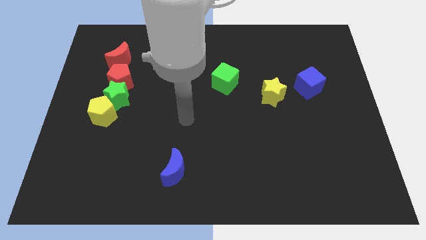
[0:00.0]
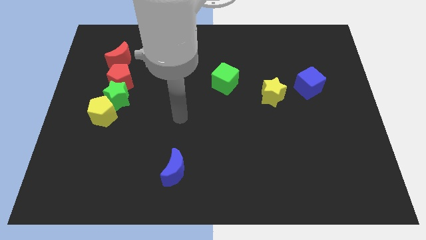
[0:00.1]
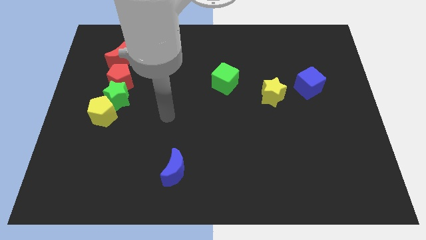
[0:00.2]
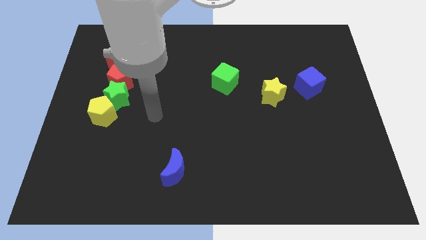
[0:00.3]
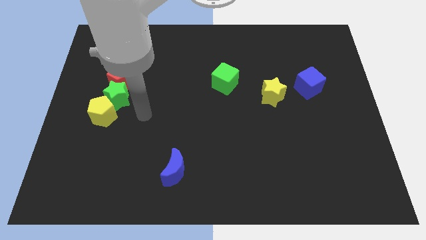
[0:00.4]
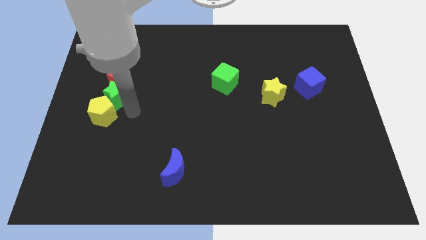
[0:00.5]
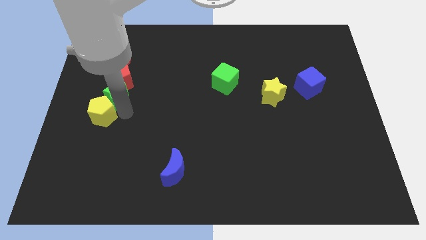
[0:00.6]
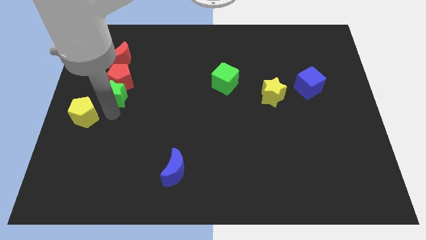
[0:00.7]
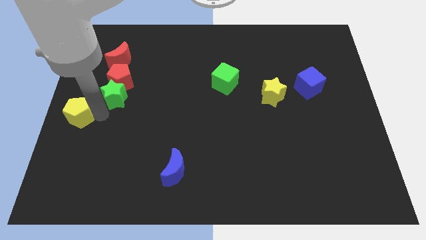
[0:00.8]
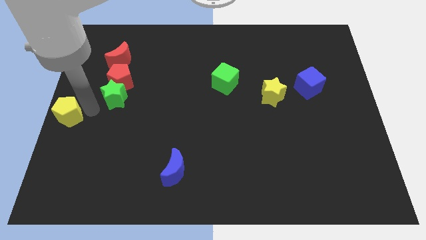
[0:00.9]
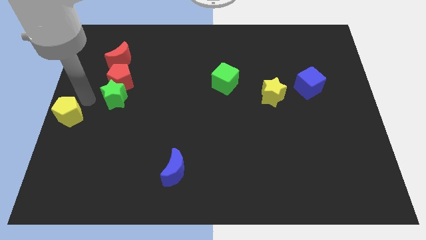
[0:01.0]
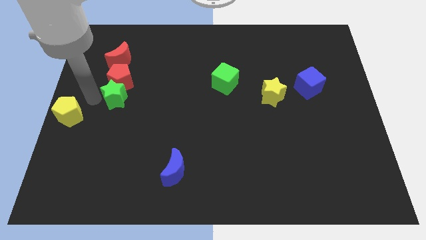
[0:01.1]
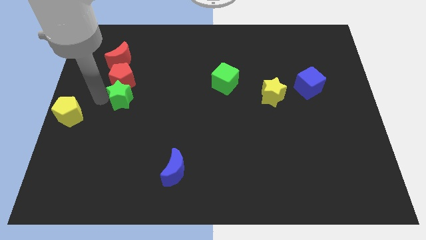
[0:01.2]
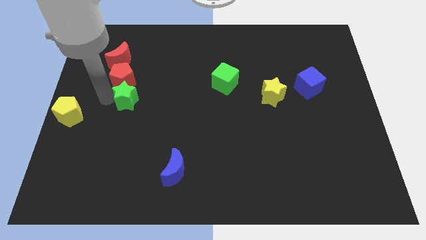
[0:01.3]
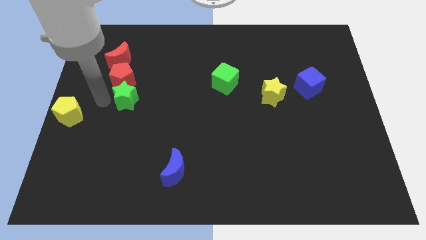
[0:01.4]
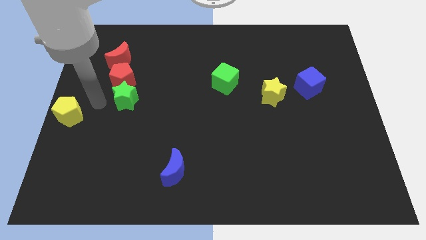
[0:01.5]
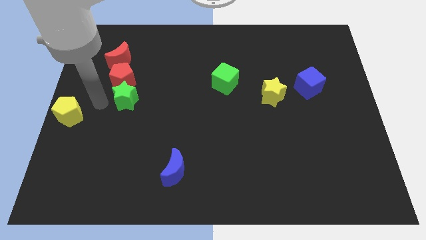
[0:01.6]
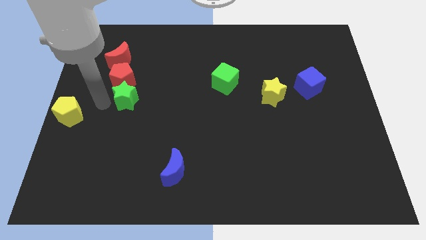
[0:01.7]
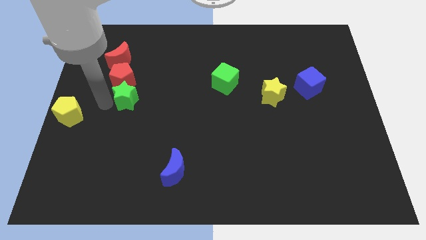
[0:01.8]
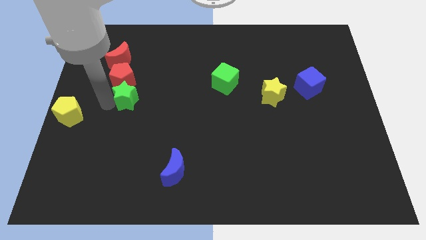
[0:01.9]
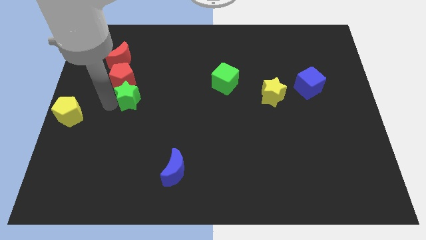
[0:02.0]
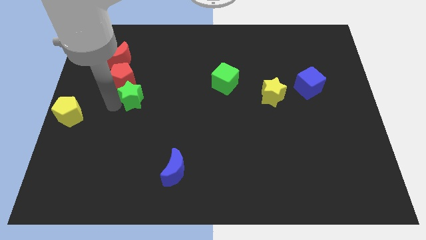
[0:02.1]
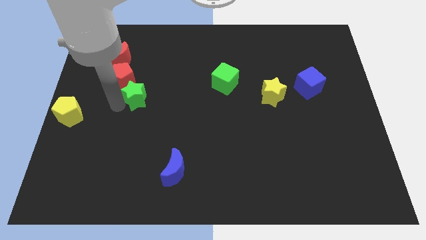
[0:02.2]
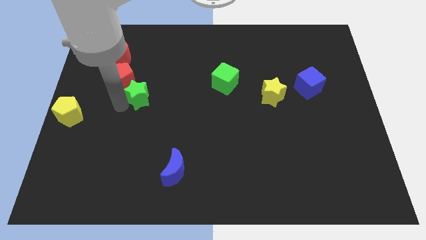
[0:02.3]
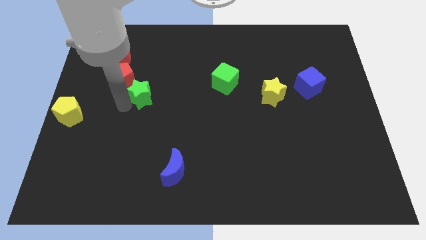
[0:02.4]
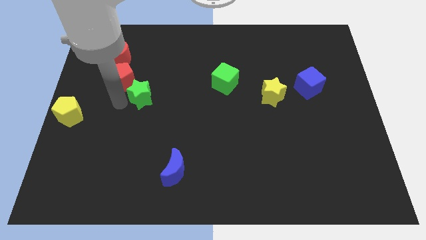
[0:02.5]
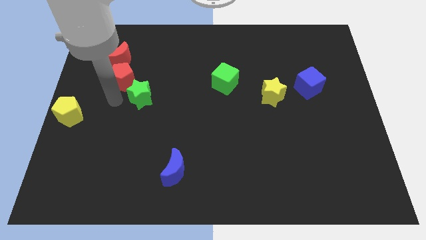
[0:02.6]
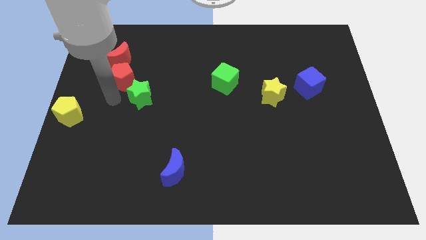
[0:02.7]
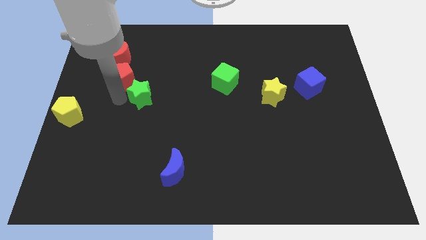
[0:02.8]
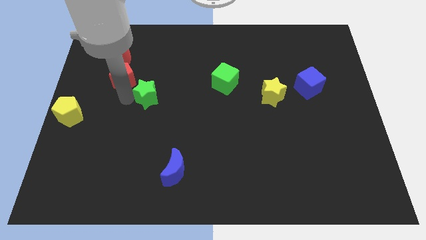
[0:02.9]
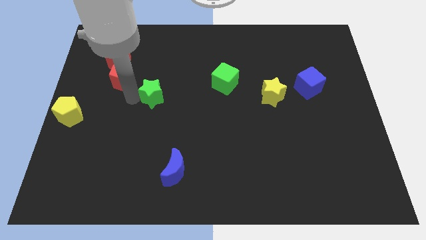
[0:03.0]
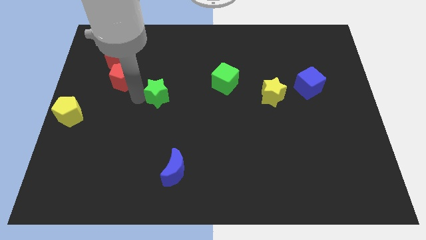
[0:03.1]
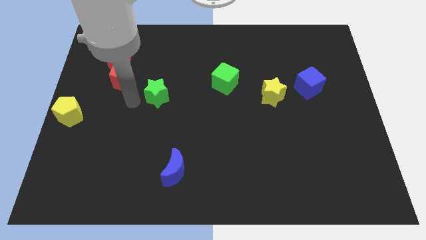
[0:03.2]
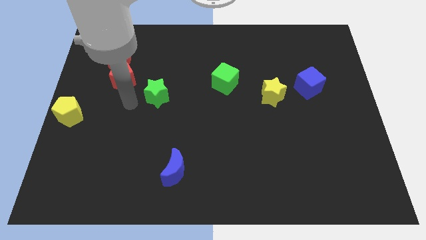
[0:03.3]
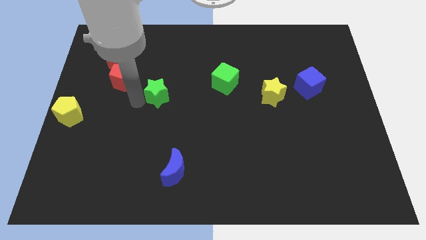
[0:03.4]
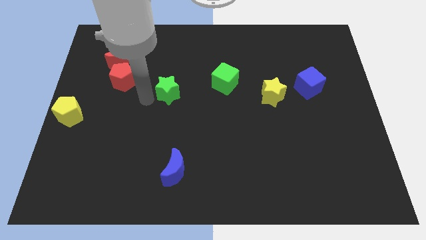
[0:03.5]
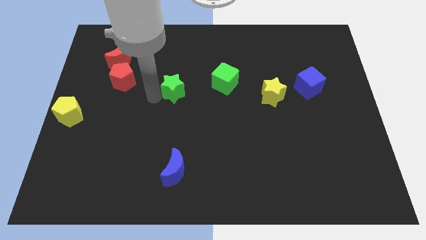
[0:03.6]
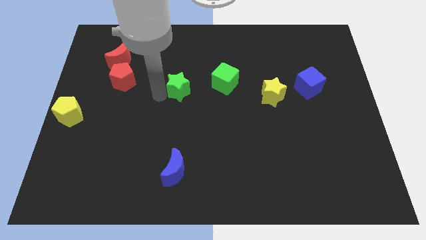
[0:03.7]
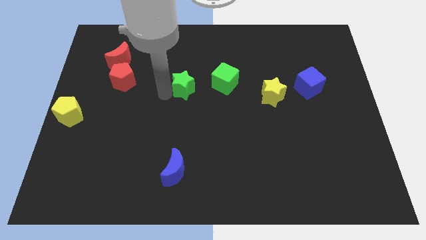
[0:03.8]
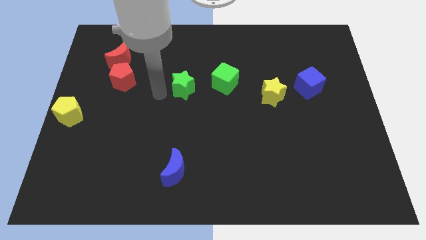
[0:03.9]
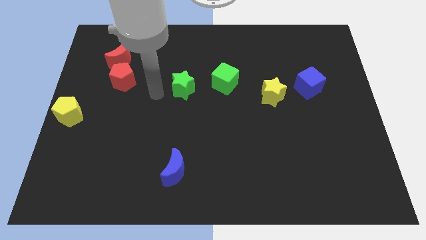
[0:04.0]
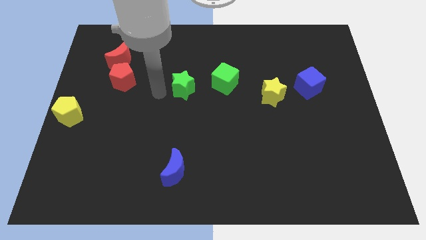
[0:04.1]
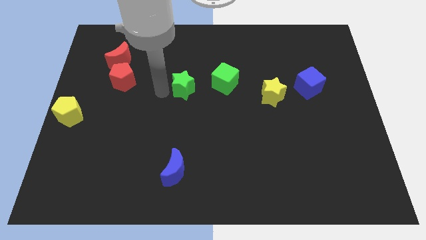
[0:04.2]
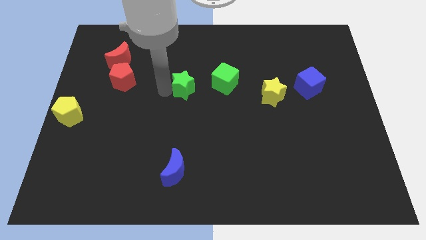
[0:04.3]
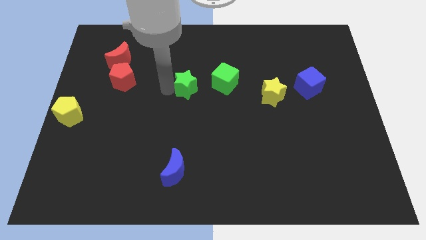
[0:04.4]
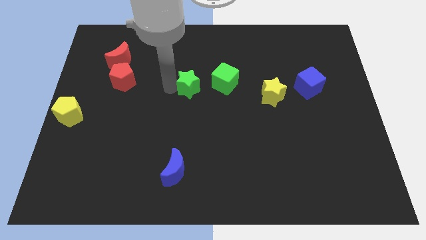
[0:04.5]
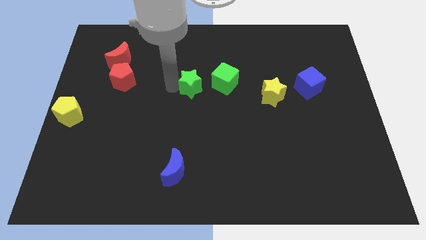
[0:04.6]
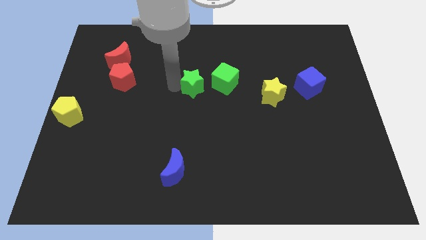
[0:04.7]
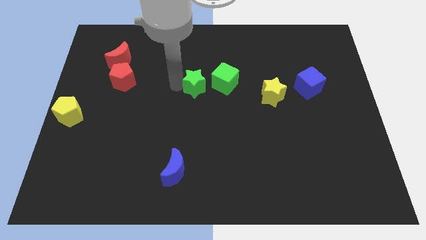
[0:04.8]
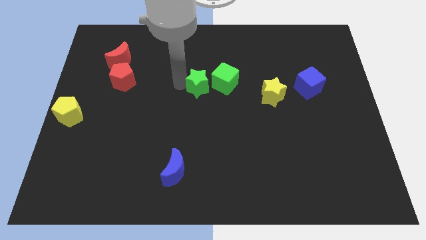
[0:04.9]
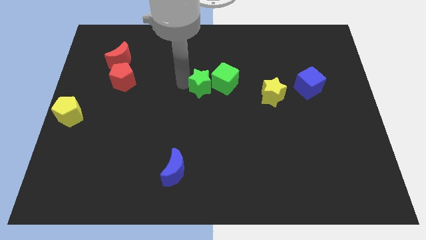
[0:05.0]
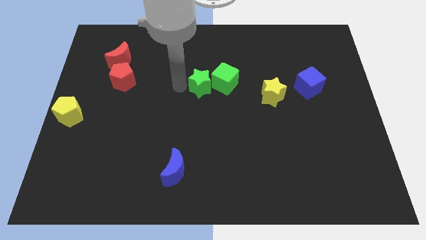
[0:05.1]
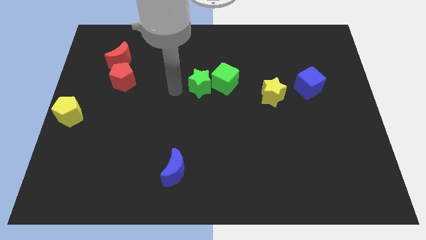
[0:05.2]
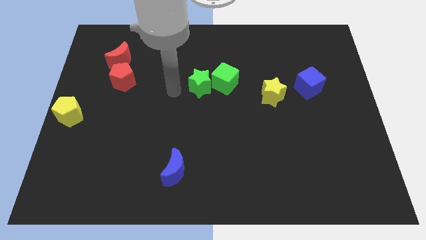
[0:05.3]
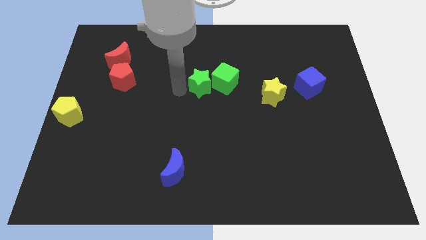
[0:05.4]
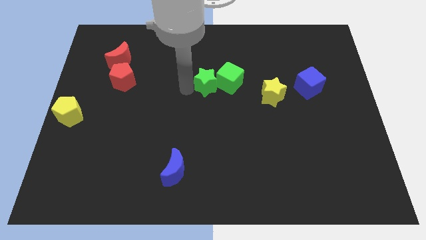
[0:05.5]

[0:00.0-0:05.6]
move the green star next to the green cube

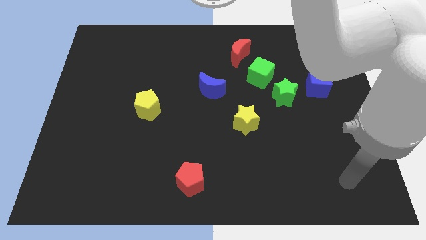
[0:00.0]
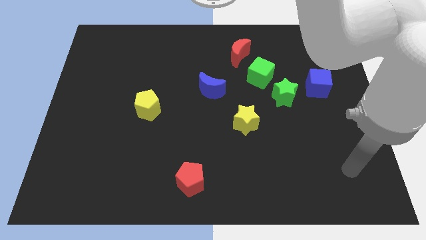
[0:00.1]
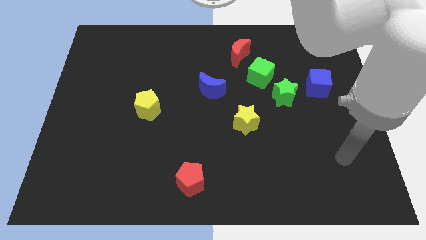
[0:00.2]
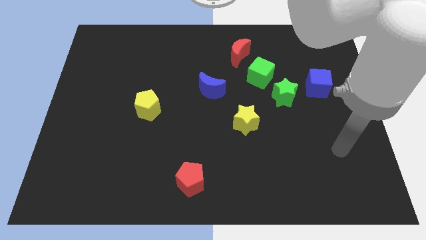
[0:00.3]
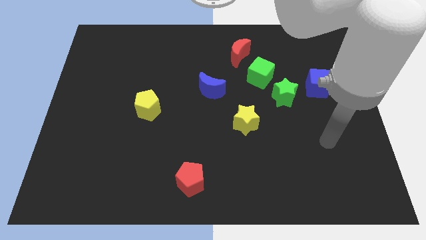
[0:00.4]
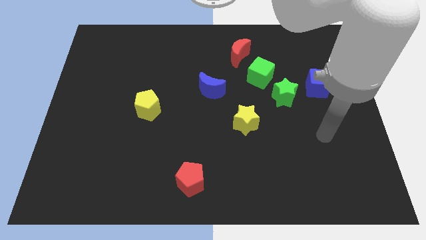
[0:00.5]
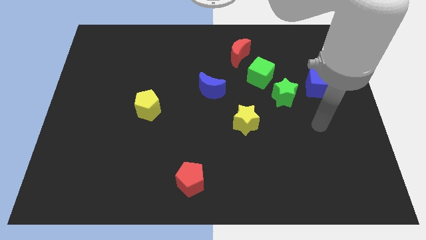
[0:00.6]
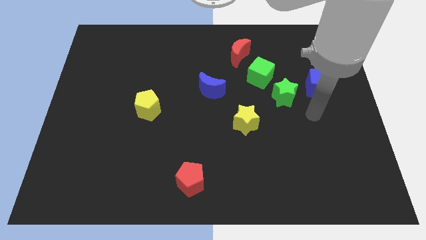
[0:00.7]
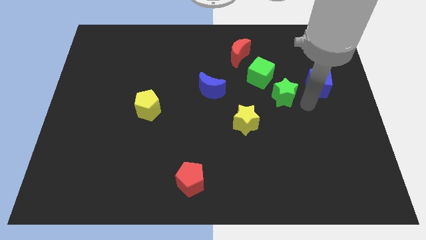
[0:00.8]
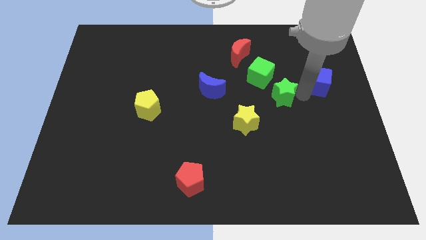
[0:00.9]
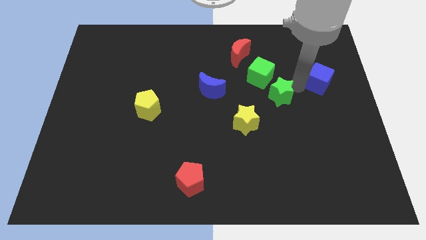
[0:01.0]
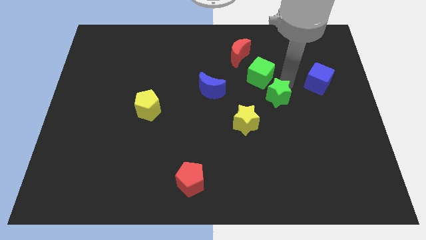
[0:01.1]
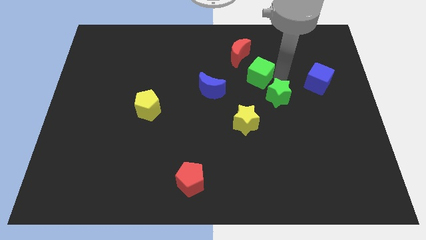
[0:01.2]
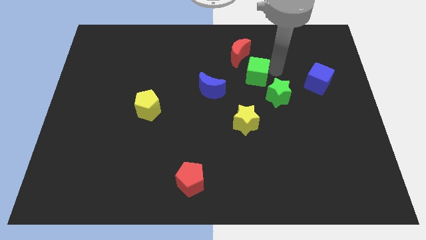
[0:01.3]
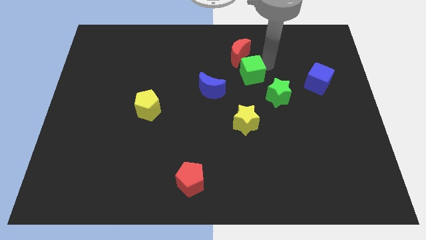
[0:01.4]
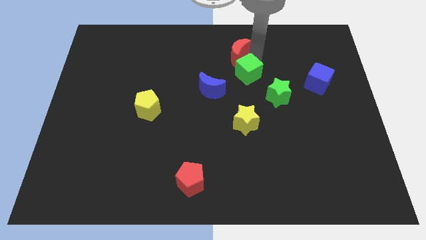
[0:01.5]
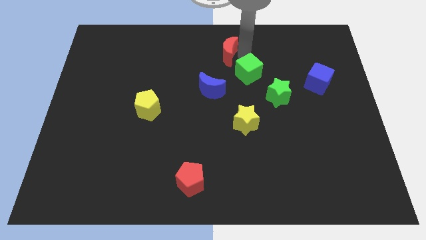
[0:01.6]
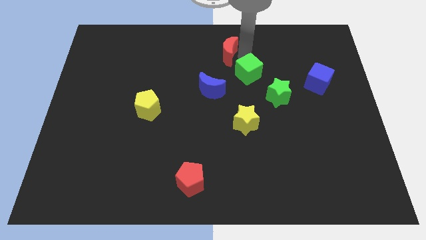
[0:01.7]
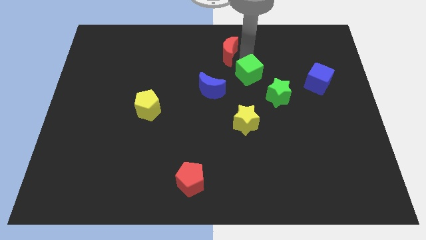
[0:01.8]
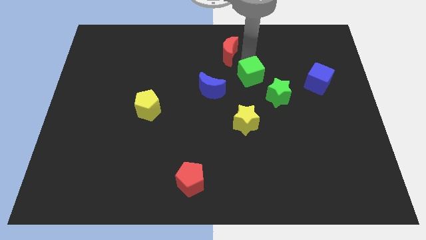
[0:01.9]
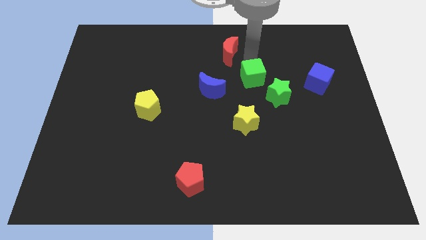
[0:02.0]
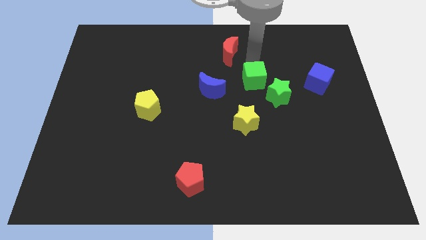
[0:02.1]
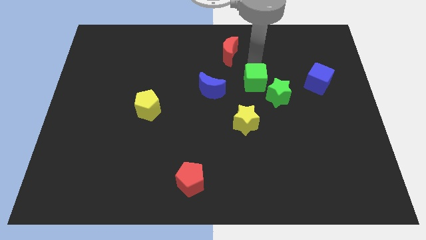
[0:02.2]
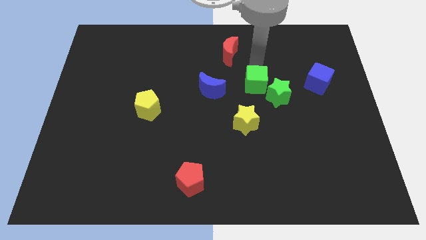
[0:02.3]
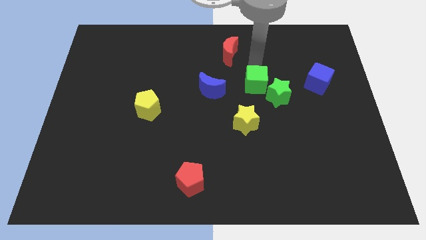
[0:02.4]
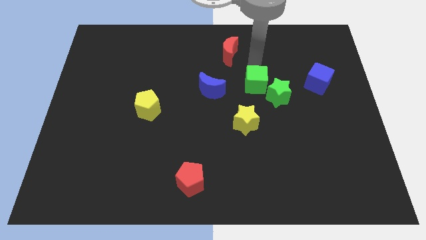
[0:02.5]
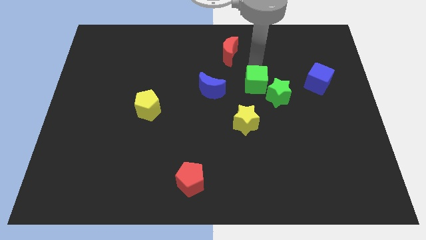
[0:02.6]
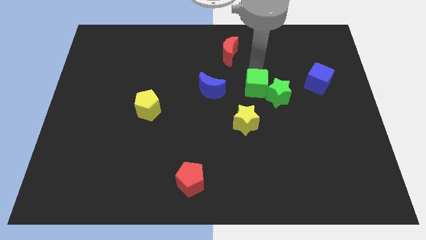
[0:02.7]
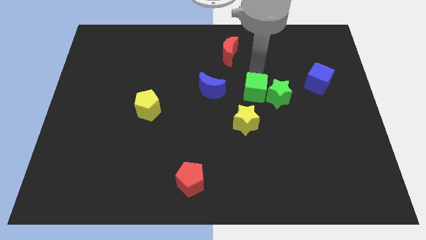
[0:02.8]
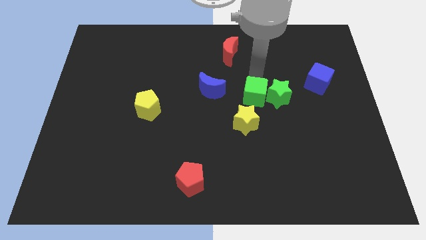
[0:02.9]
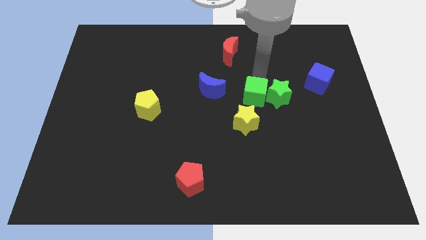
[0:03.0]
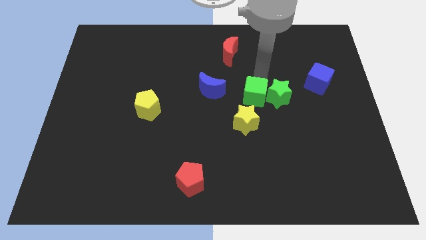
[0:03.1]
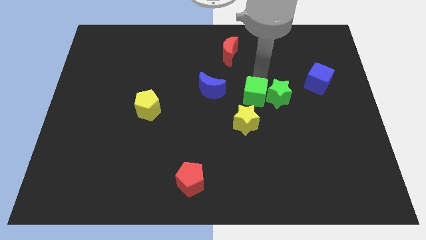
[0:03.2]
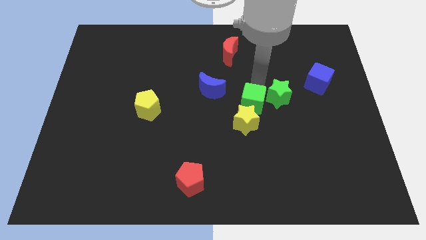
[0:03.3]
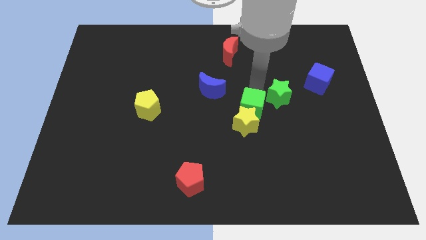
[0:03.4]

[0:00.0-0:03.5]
slide the green cube to the yellow star
